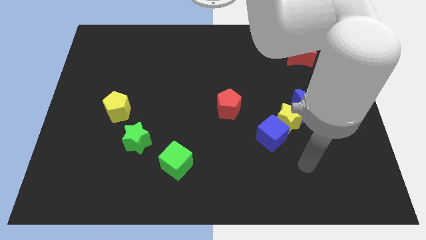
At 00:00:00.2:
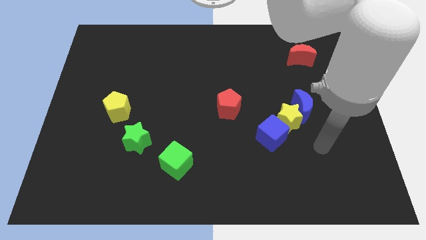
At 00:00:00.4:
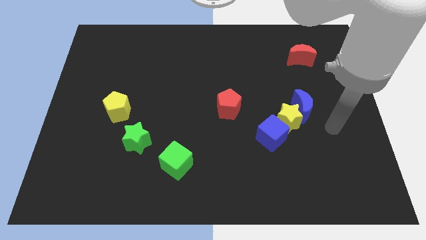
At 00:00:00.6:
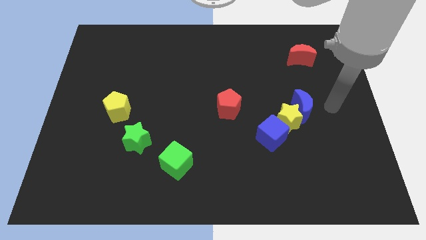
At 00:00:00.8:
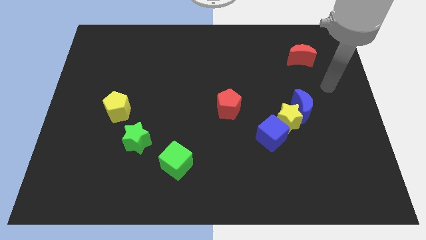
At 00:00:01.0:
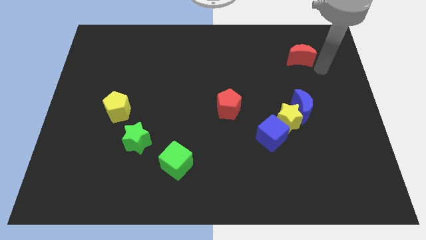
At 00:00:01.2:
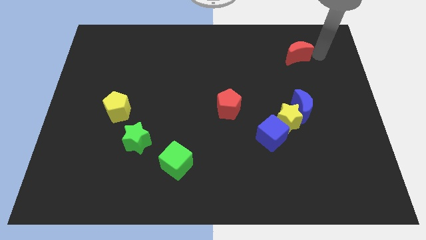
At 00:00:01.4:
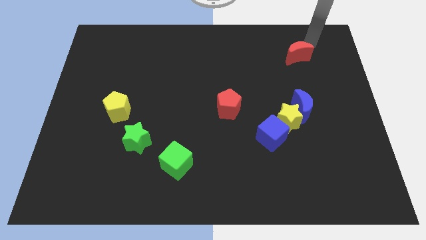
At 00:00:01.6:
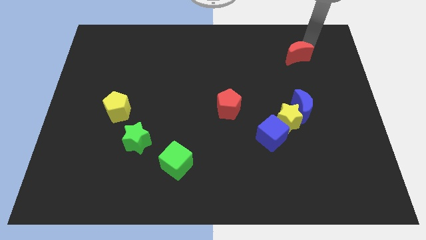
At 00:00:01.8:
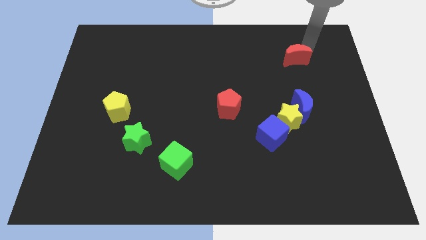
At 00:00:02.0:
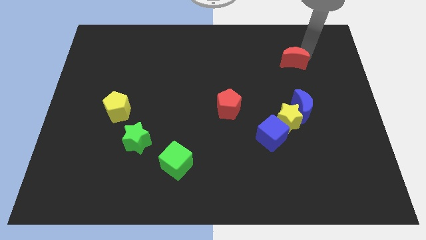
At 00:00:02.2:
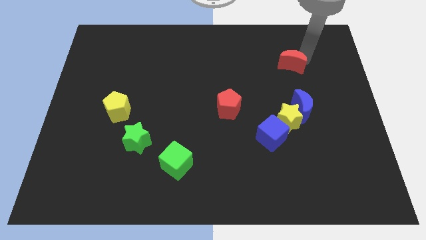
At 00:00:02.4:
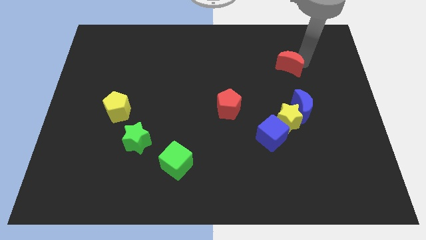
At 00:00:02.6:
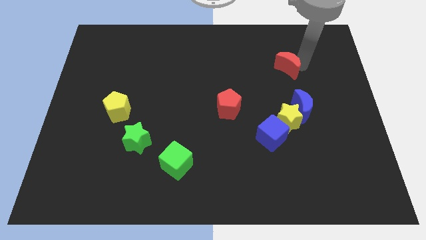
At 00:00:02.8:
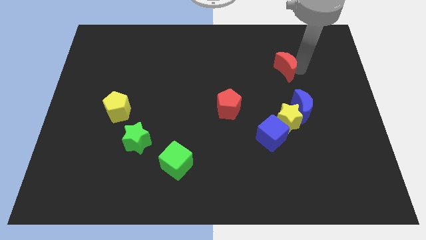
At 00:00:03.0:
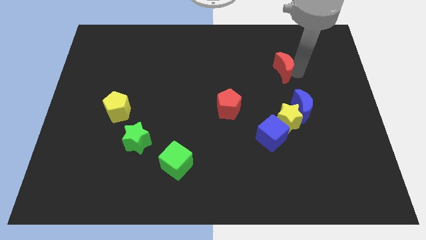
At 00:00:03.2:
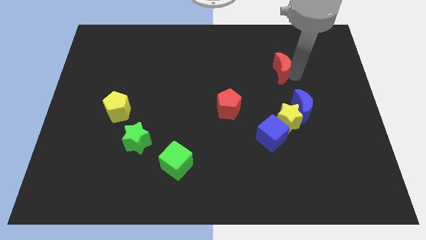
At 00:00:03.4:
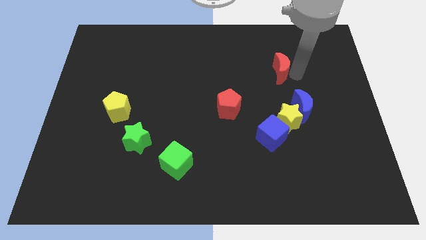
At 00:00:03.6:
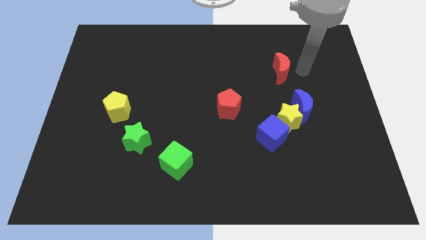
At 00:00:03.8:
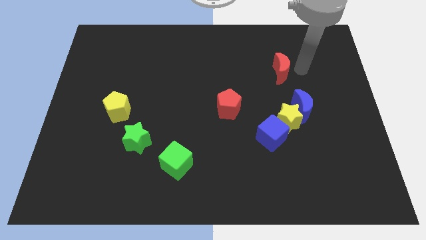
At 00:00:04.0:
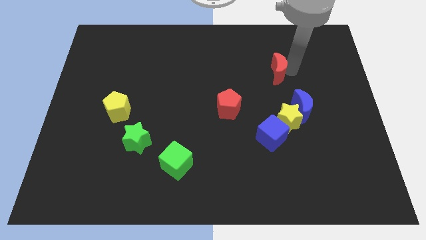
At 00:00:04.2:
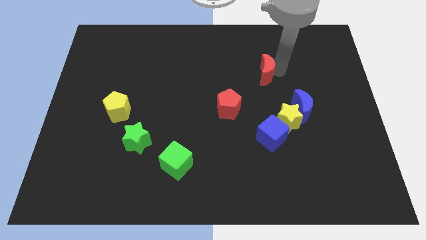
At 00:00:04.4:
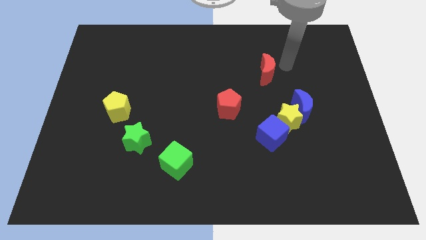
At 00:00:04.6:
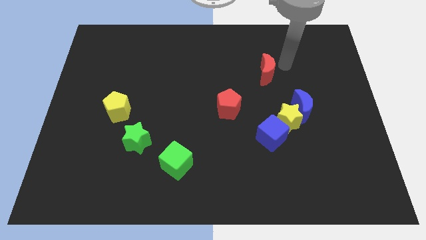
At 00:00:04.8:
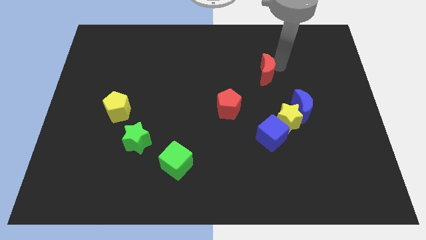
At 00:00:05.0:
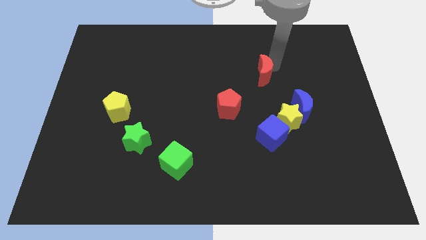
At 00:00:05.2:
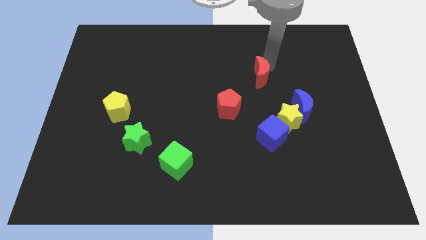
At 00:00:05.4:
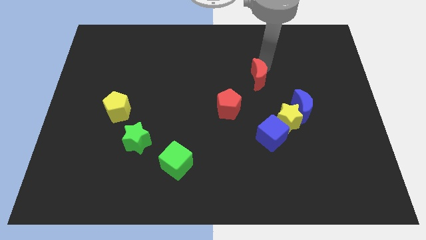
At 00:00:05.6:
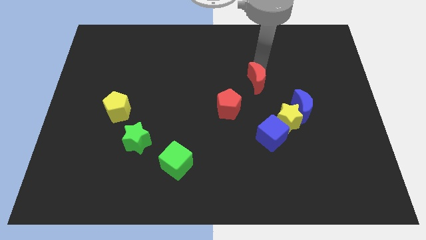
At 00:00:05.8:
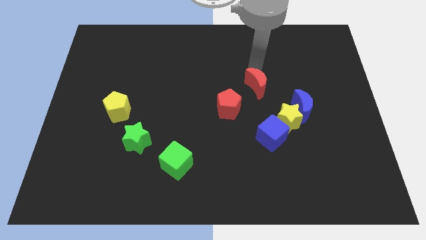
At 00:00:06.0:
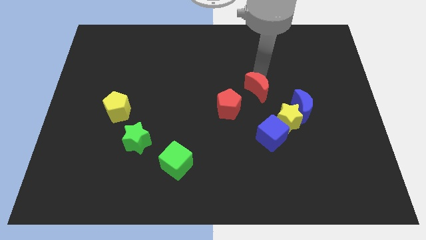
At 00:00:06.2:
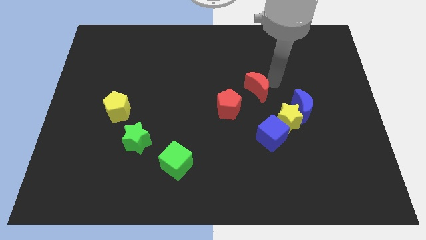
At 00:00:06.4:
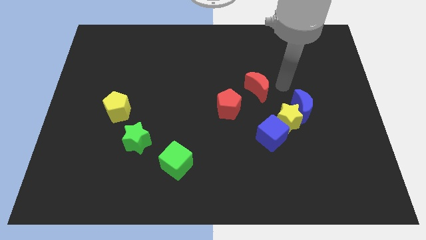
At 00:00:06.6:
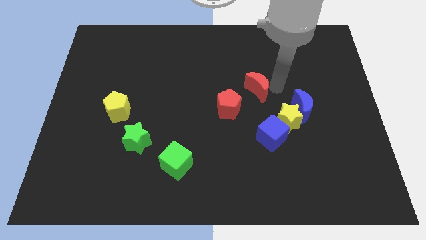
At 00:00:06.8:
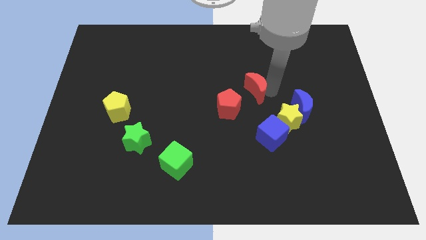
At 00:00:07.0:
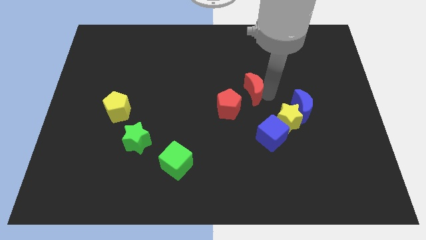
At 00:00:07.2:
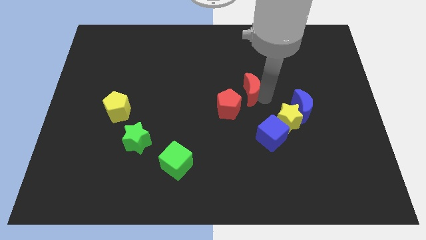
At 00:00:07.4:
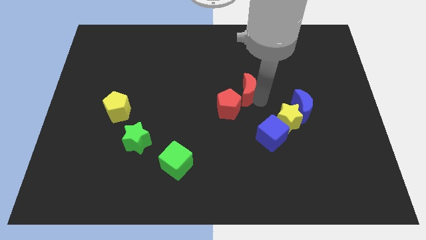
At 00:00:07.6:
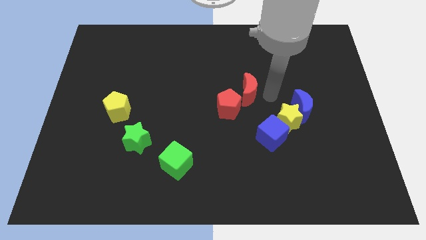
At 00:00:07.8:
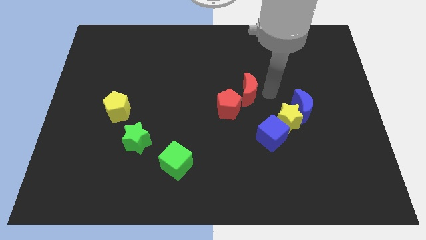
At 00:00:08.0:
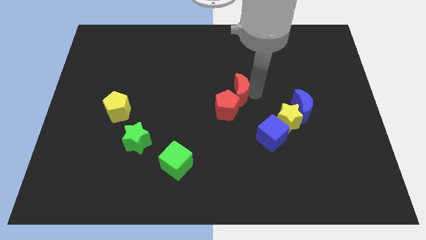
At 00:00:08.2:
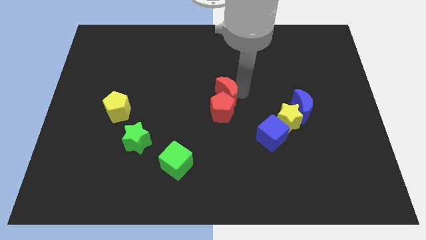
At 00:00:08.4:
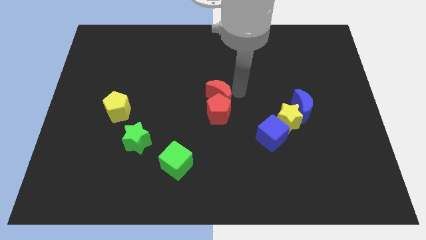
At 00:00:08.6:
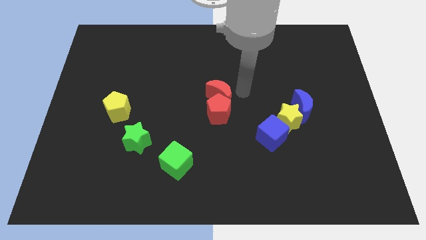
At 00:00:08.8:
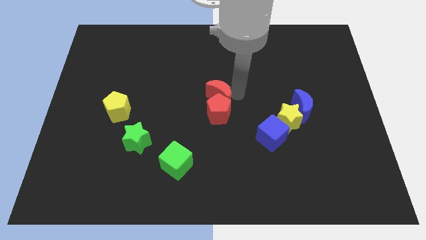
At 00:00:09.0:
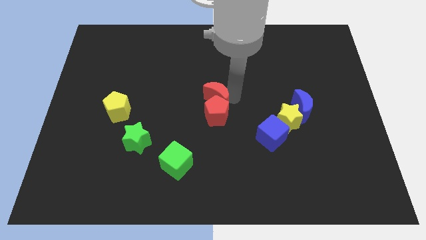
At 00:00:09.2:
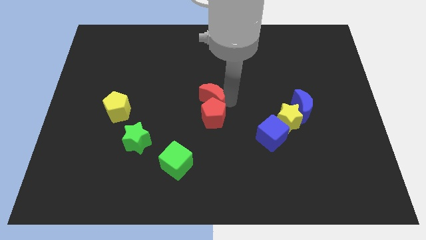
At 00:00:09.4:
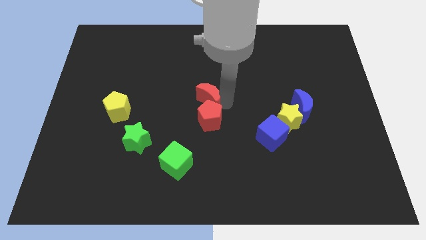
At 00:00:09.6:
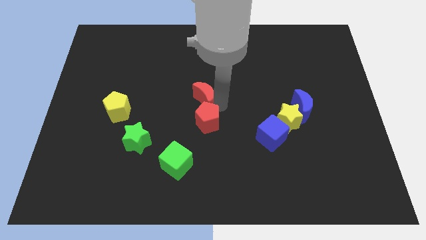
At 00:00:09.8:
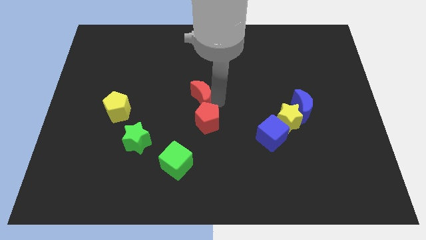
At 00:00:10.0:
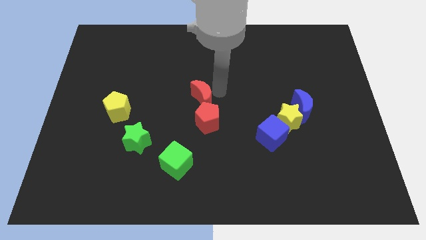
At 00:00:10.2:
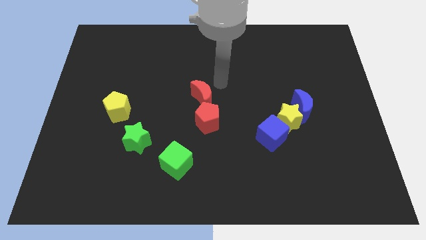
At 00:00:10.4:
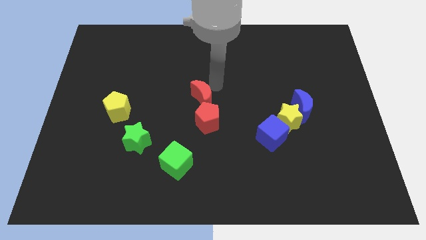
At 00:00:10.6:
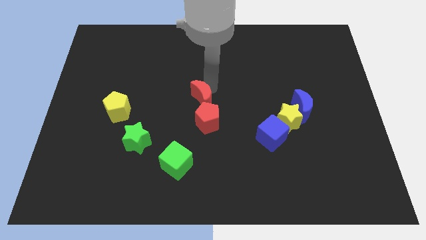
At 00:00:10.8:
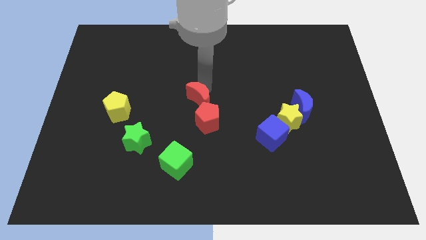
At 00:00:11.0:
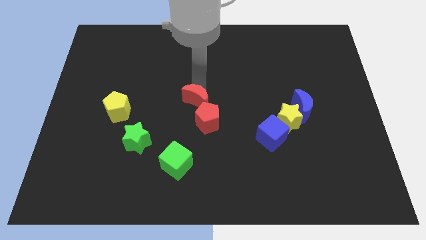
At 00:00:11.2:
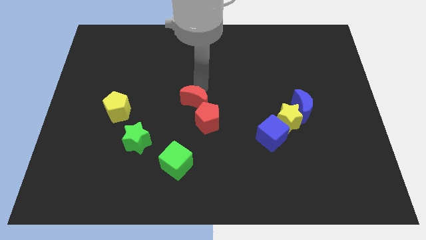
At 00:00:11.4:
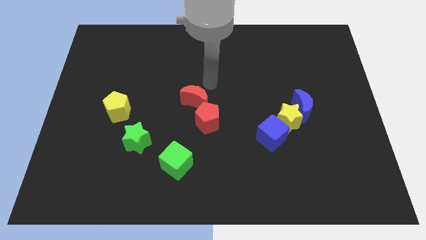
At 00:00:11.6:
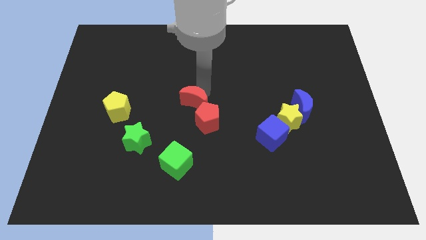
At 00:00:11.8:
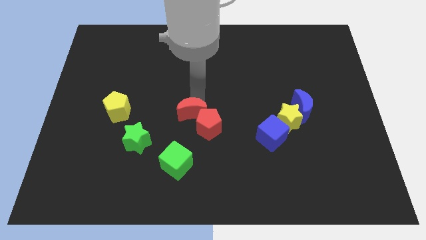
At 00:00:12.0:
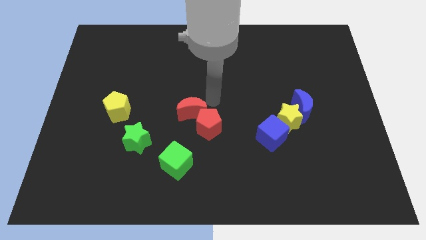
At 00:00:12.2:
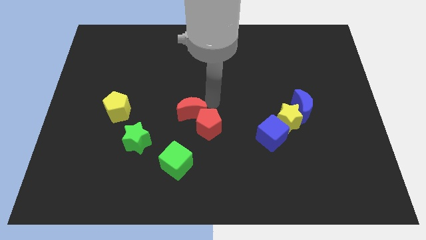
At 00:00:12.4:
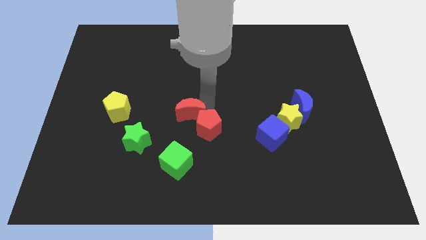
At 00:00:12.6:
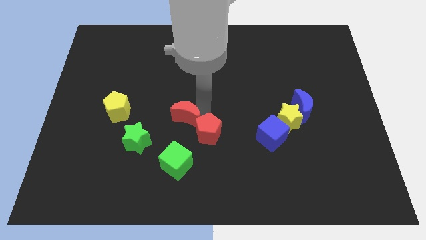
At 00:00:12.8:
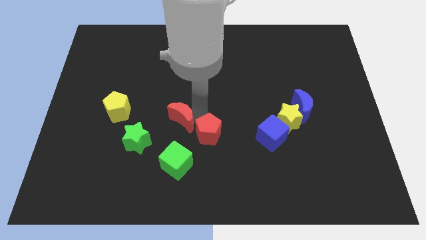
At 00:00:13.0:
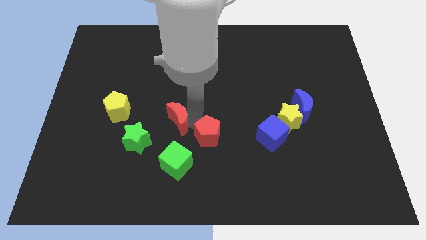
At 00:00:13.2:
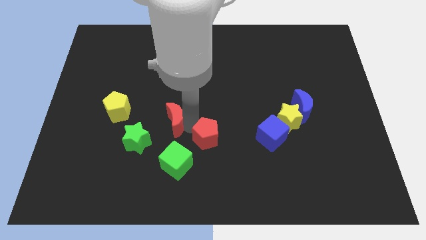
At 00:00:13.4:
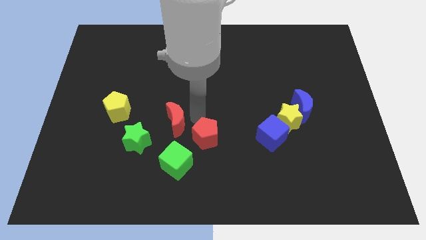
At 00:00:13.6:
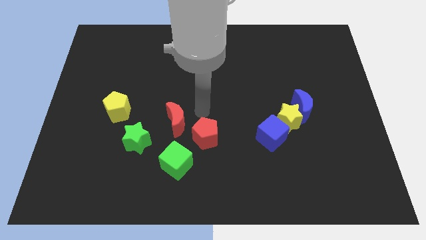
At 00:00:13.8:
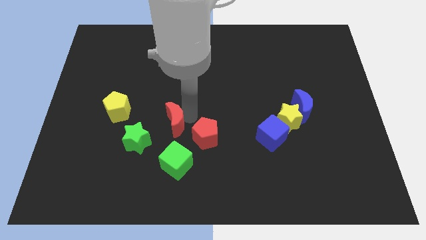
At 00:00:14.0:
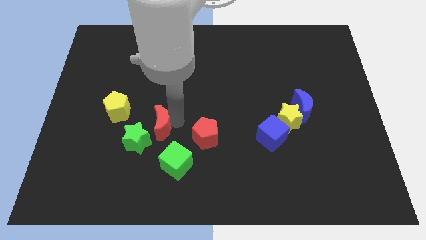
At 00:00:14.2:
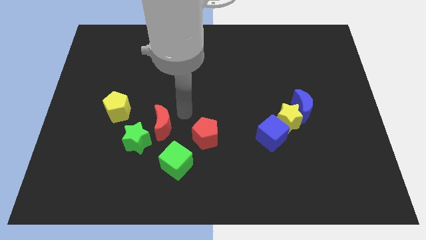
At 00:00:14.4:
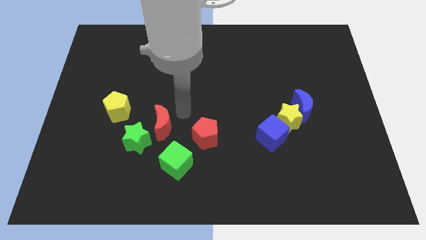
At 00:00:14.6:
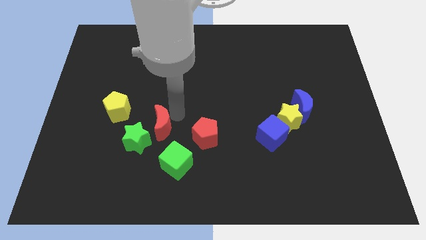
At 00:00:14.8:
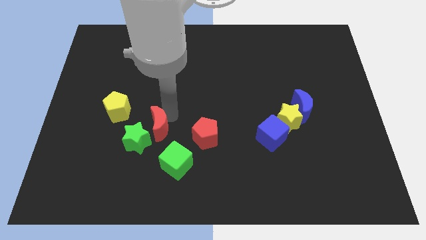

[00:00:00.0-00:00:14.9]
move the red moon towards the green star
